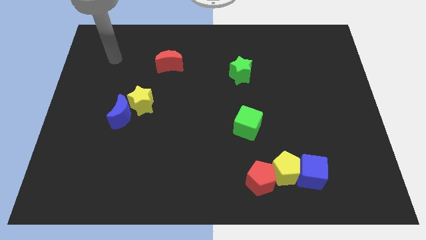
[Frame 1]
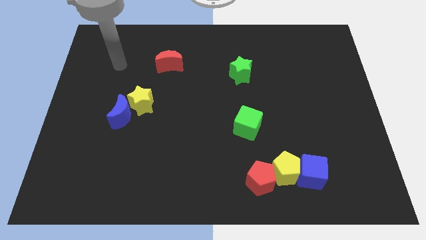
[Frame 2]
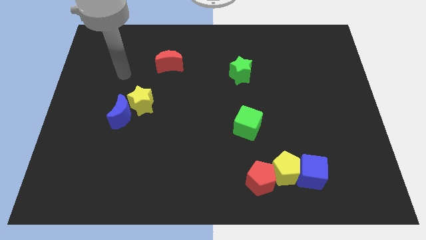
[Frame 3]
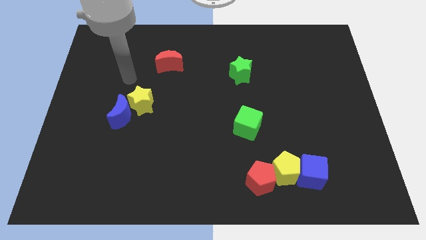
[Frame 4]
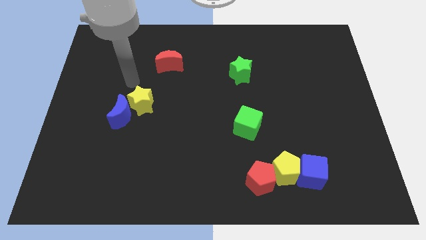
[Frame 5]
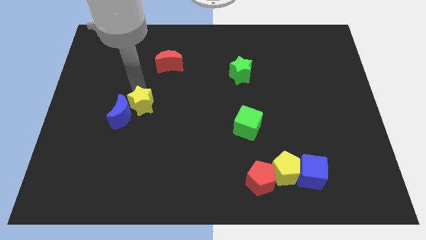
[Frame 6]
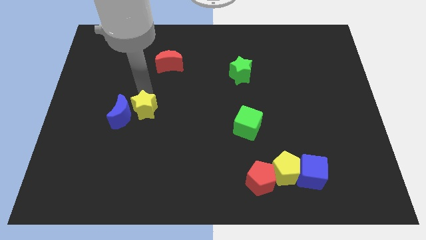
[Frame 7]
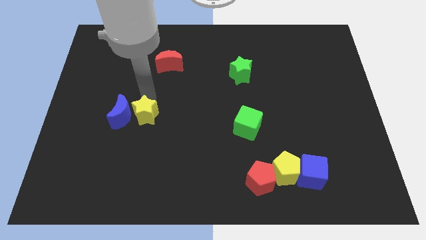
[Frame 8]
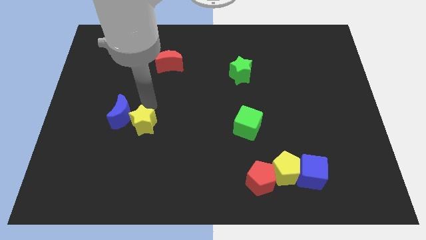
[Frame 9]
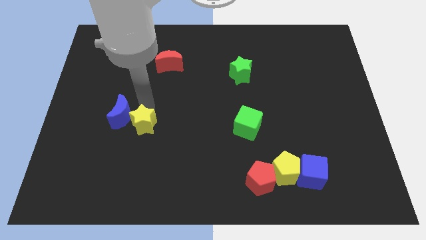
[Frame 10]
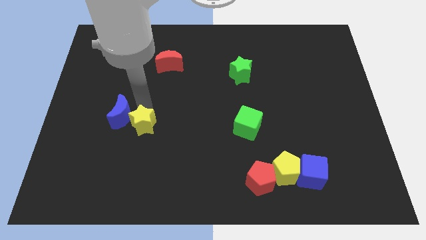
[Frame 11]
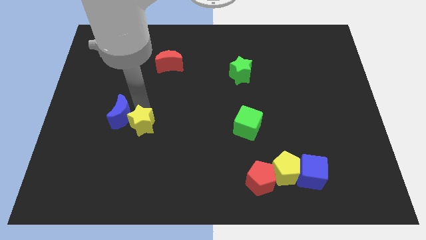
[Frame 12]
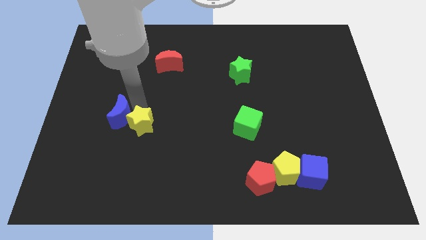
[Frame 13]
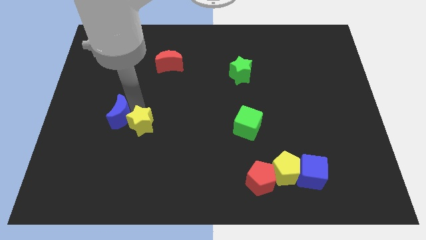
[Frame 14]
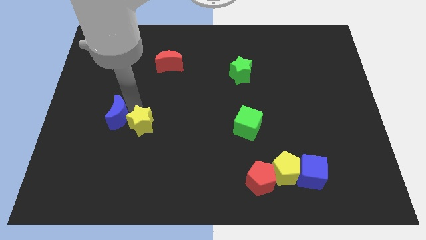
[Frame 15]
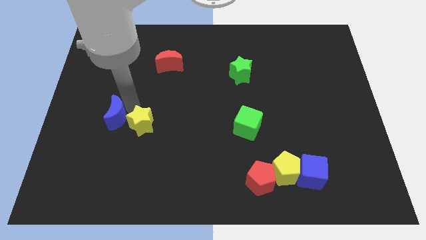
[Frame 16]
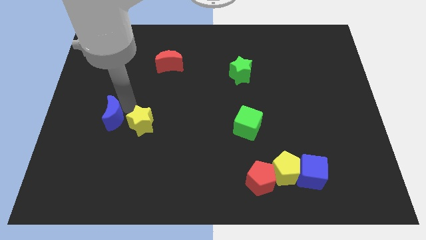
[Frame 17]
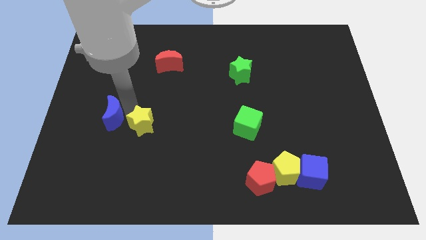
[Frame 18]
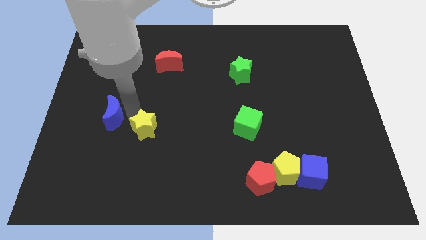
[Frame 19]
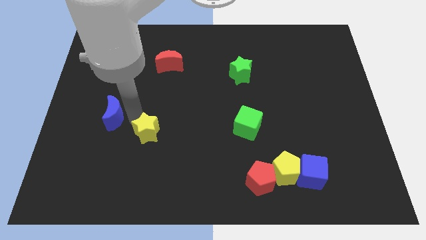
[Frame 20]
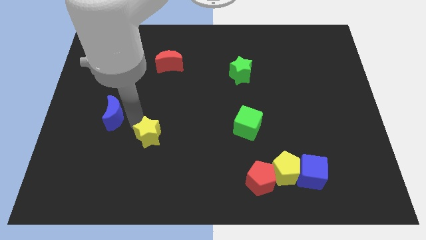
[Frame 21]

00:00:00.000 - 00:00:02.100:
pull the blue moon apart from the yellow star

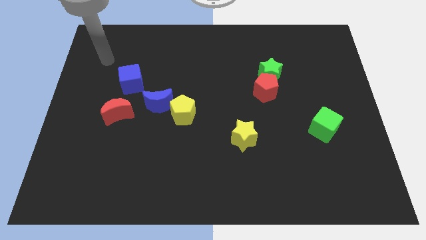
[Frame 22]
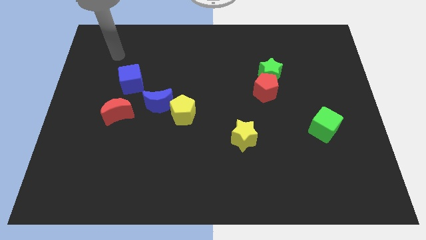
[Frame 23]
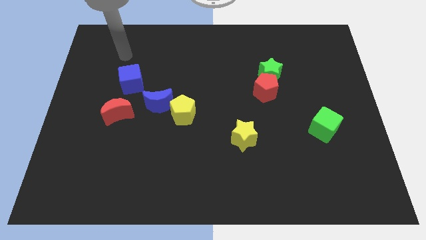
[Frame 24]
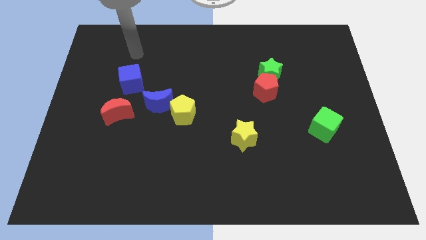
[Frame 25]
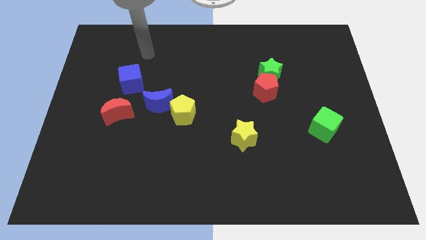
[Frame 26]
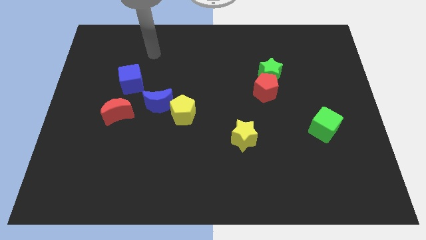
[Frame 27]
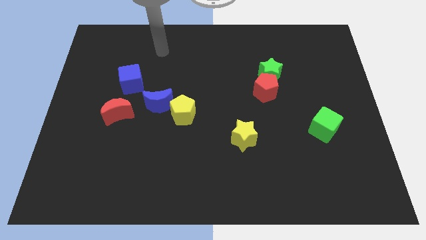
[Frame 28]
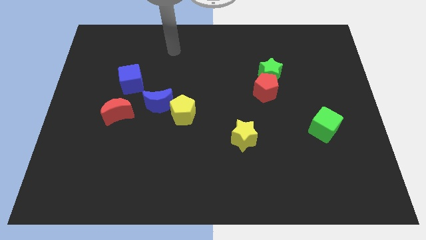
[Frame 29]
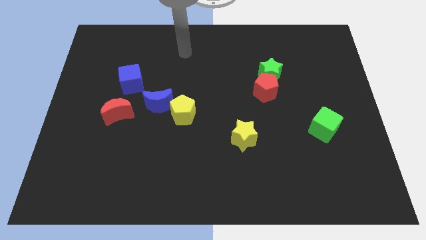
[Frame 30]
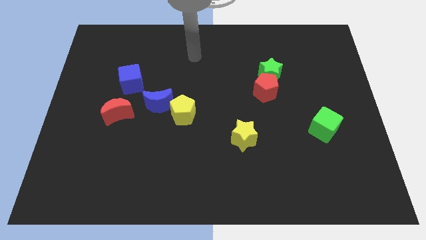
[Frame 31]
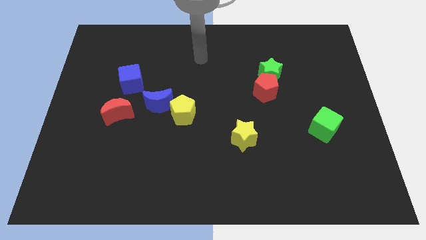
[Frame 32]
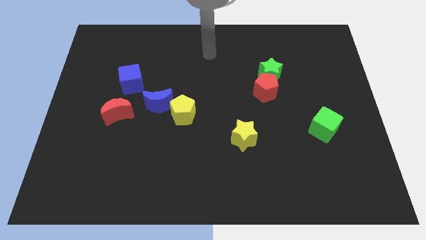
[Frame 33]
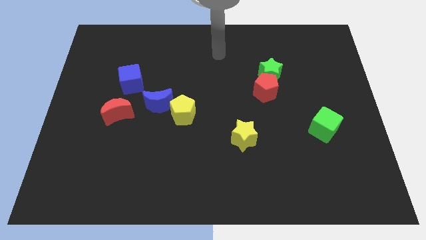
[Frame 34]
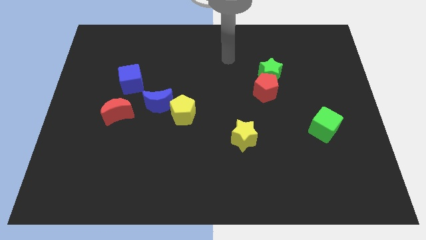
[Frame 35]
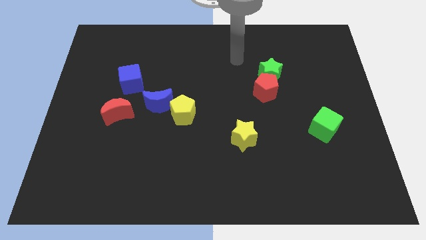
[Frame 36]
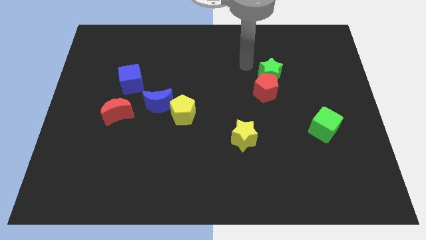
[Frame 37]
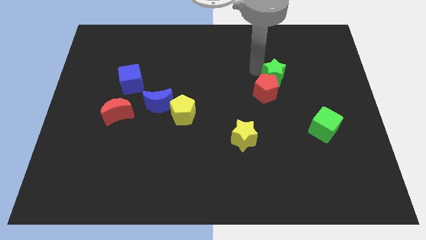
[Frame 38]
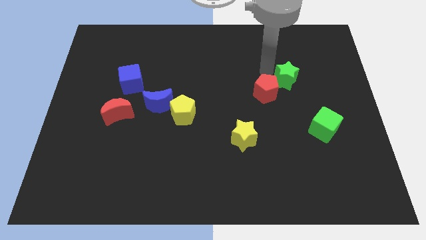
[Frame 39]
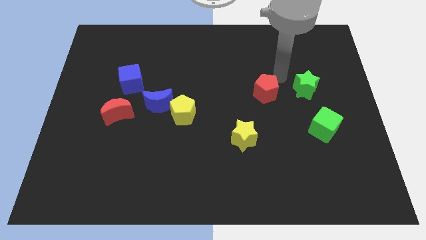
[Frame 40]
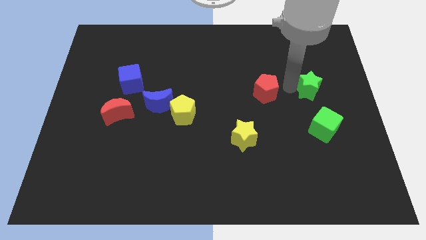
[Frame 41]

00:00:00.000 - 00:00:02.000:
pull the red pentagon apart from the green star

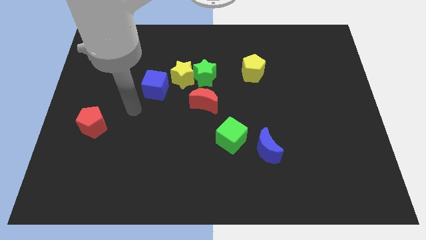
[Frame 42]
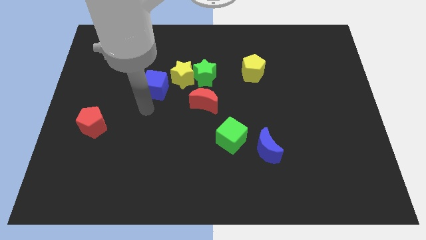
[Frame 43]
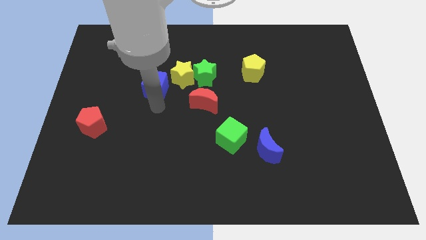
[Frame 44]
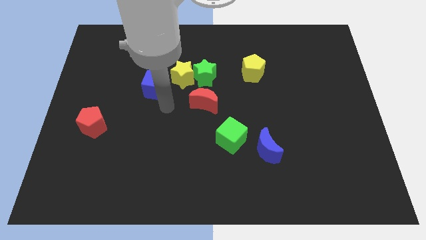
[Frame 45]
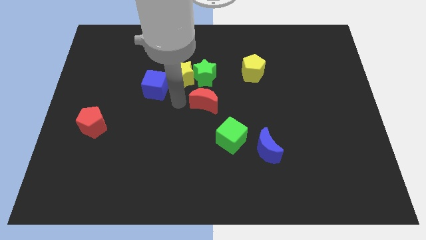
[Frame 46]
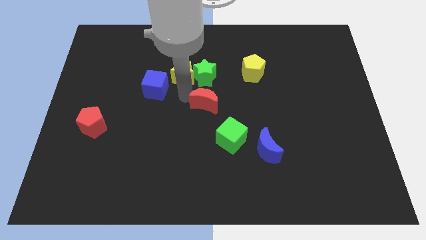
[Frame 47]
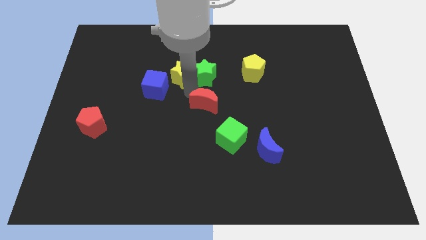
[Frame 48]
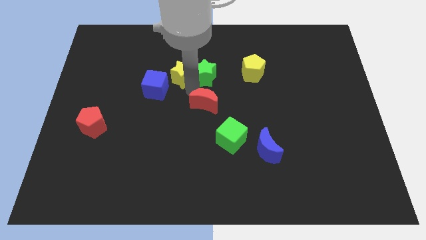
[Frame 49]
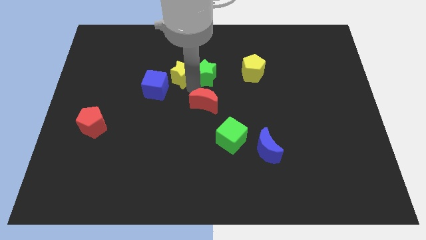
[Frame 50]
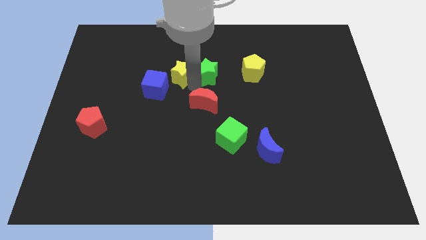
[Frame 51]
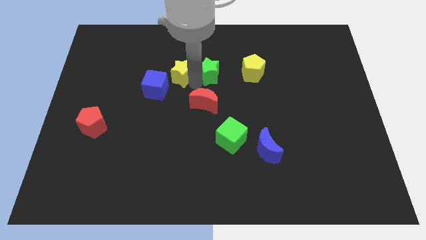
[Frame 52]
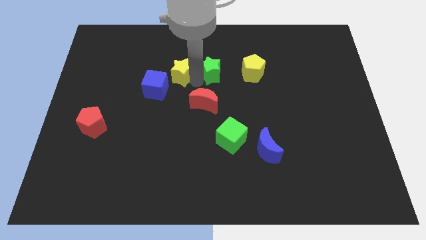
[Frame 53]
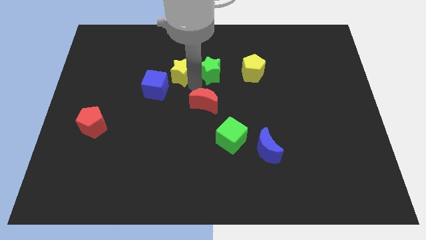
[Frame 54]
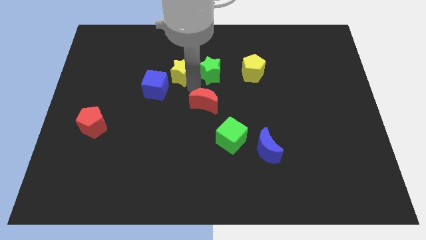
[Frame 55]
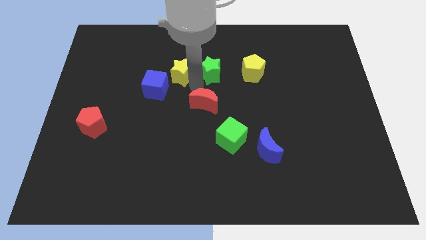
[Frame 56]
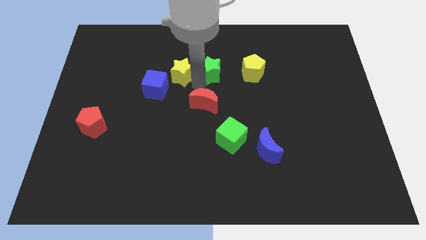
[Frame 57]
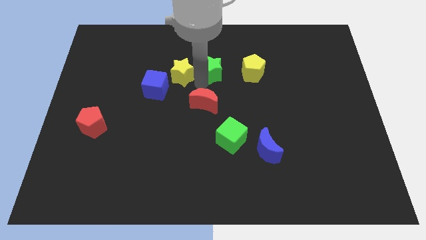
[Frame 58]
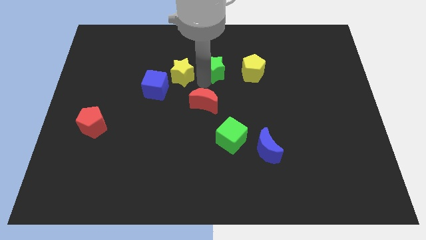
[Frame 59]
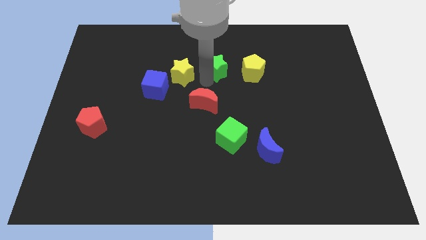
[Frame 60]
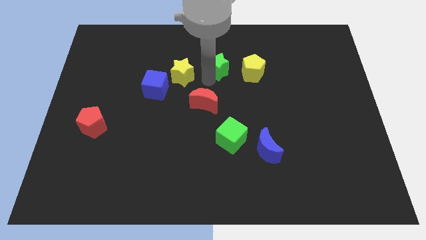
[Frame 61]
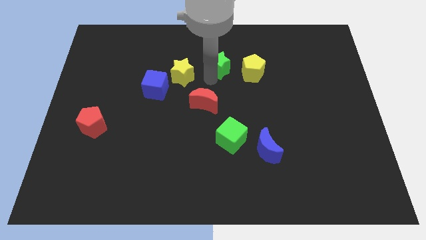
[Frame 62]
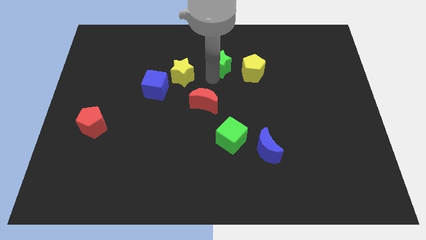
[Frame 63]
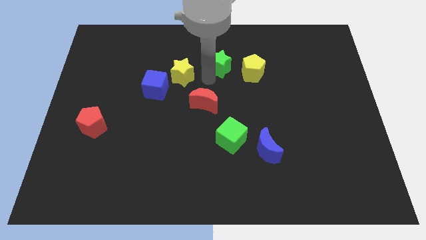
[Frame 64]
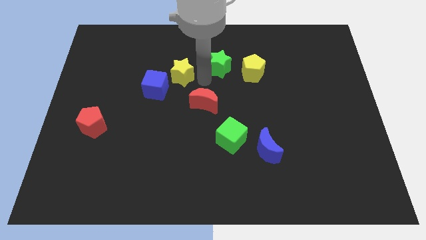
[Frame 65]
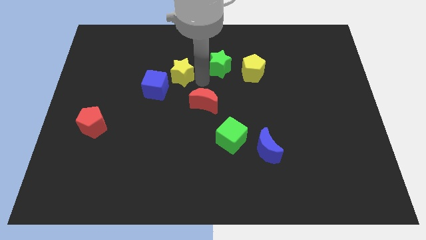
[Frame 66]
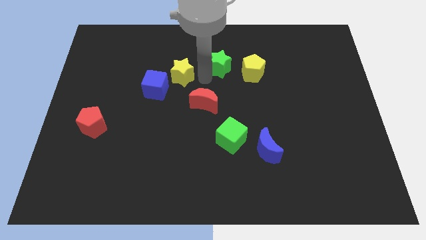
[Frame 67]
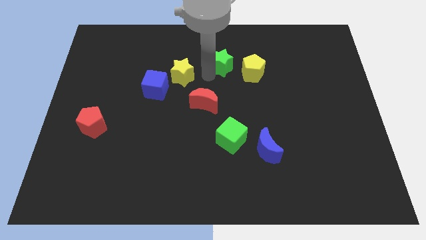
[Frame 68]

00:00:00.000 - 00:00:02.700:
pull the green star apart from the yellow star and red moon

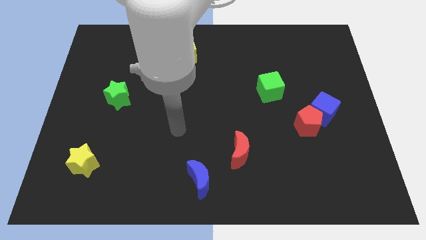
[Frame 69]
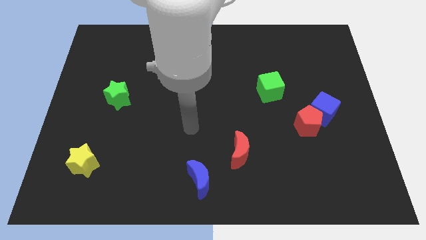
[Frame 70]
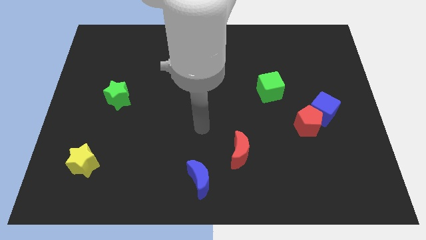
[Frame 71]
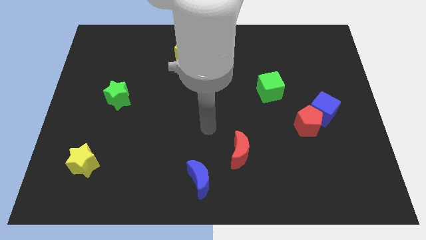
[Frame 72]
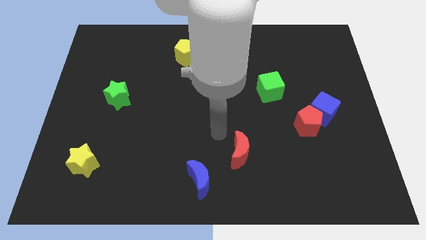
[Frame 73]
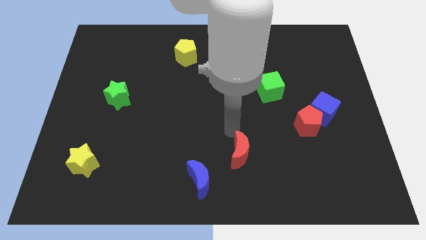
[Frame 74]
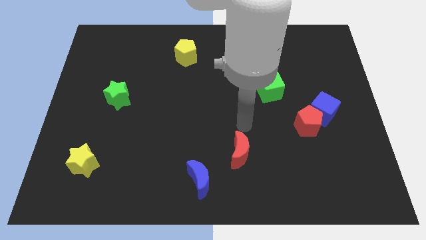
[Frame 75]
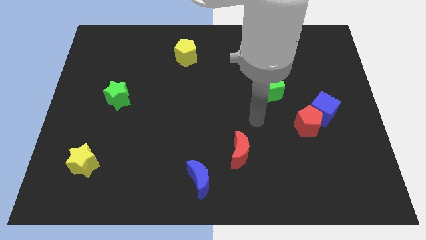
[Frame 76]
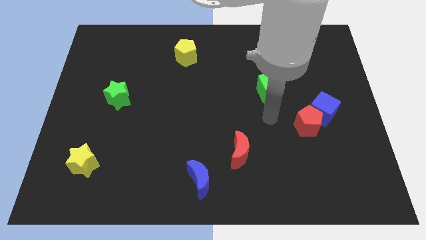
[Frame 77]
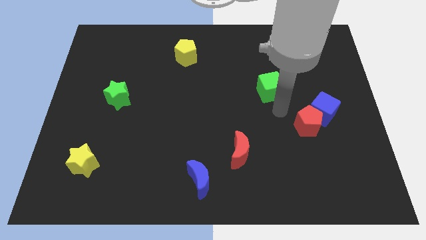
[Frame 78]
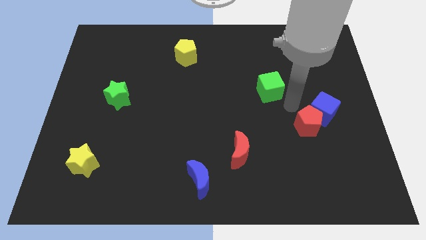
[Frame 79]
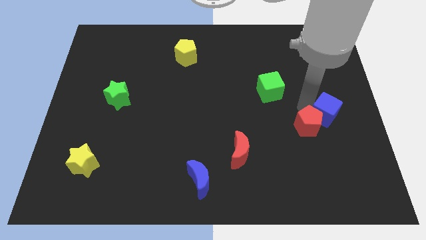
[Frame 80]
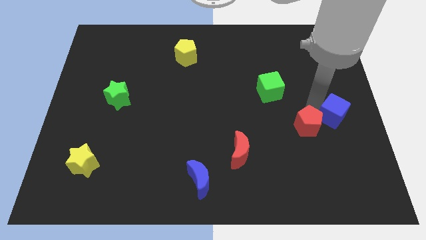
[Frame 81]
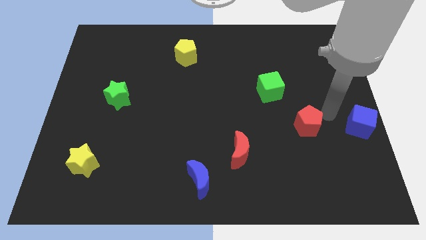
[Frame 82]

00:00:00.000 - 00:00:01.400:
pull the red pentagon apart from the blue cube

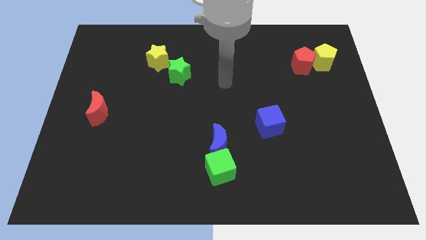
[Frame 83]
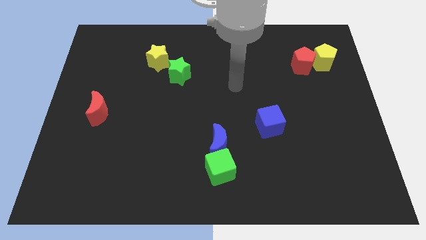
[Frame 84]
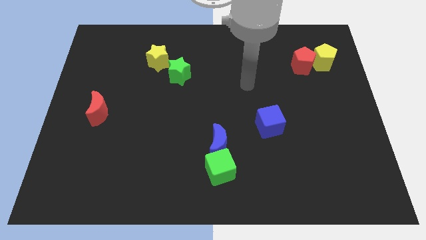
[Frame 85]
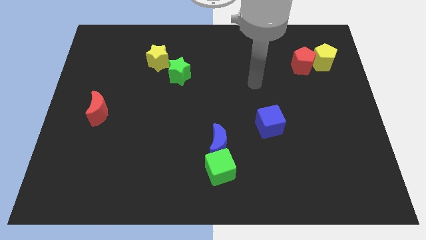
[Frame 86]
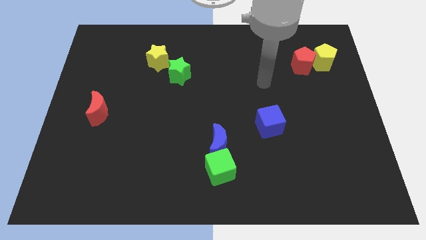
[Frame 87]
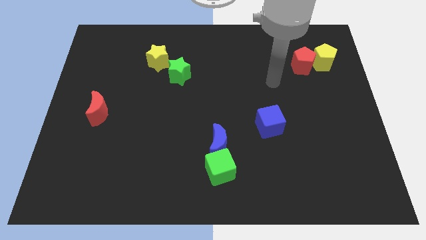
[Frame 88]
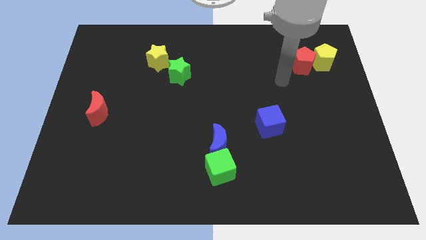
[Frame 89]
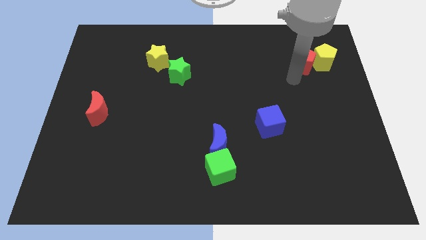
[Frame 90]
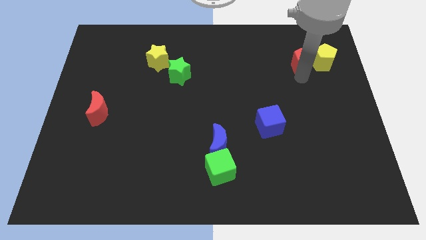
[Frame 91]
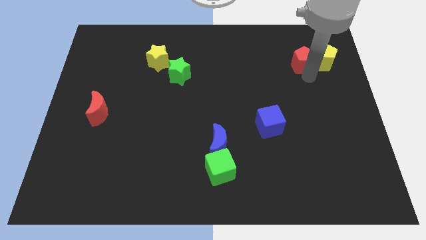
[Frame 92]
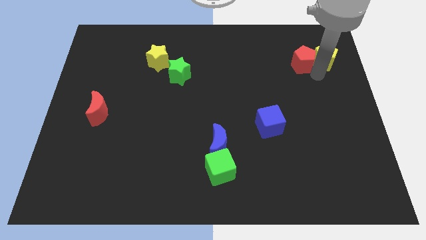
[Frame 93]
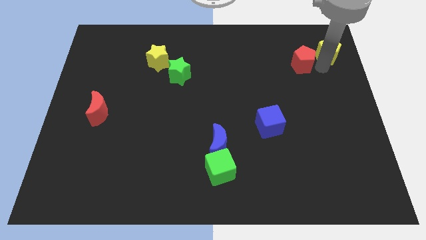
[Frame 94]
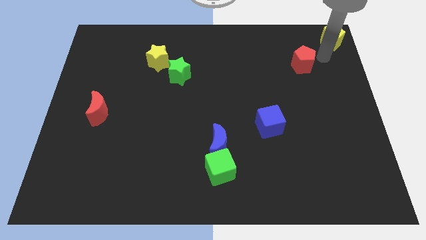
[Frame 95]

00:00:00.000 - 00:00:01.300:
move the red pentagon away from the yellow pentagon
